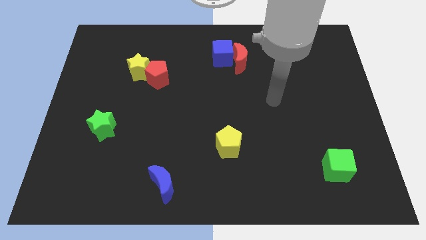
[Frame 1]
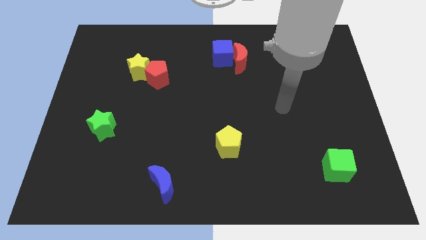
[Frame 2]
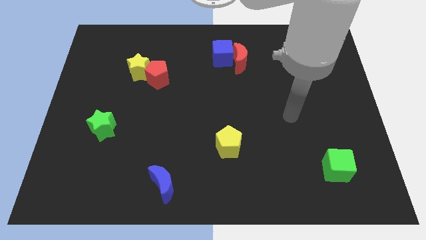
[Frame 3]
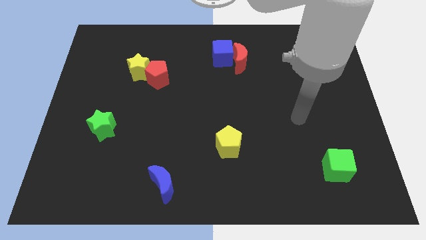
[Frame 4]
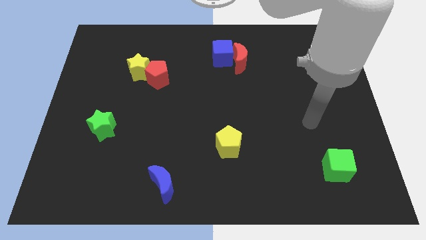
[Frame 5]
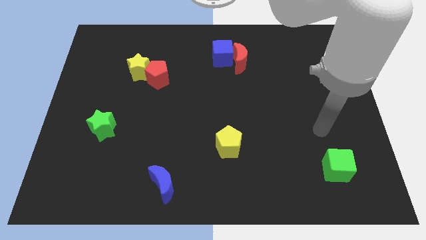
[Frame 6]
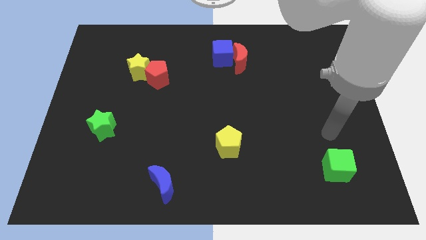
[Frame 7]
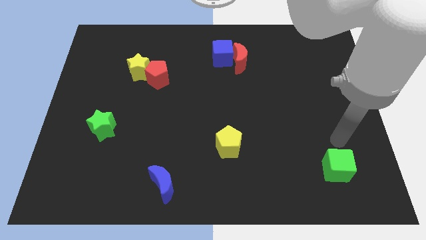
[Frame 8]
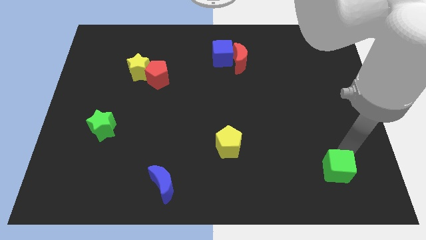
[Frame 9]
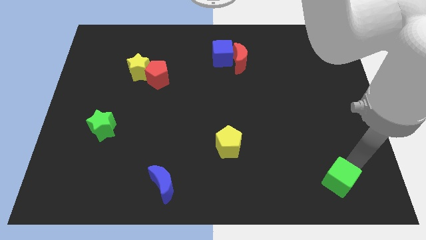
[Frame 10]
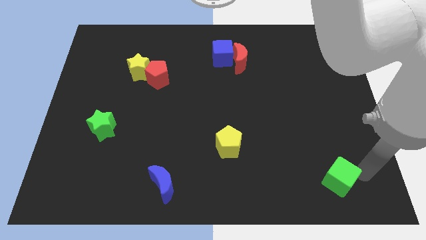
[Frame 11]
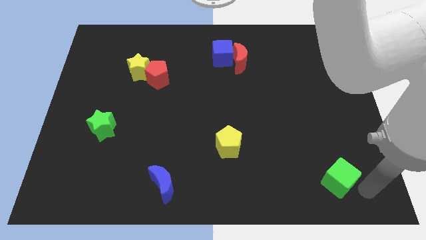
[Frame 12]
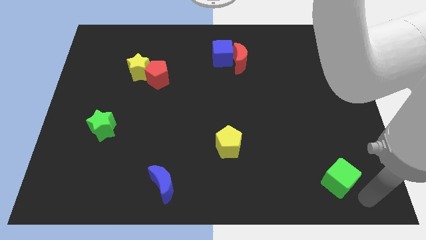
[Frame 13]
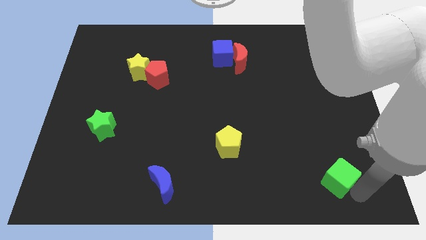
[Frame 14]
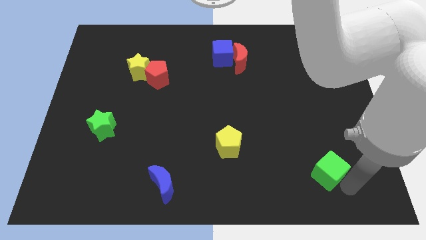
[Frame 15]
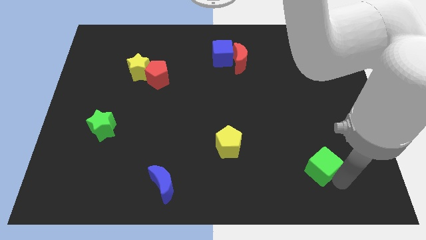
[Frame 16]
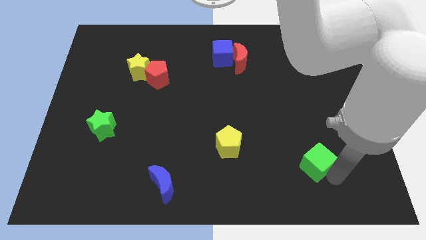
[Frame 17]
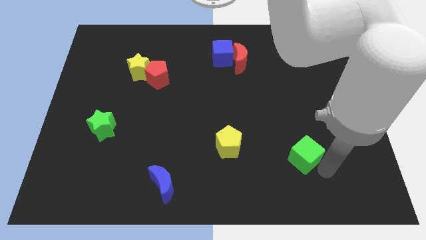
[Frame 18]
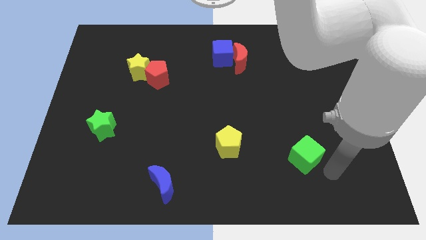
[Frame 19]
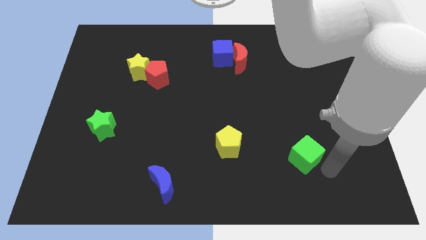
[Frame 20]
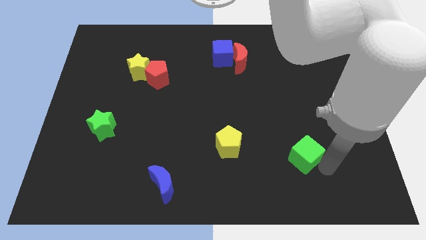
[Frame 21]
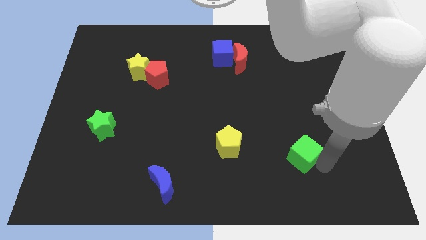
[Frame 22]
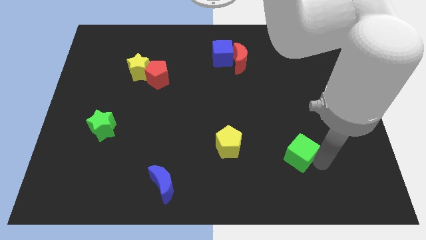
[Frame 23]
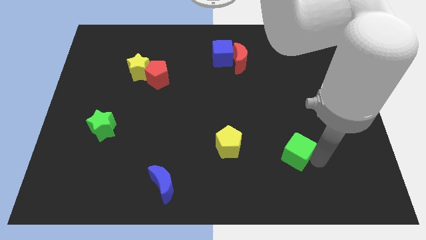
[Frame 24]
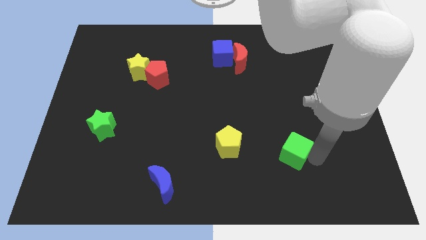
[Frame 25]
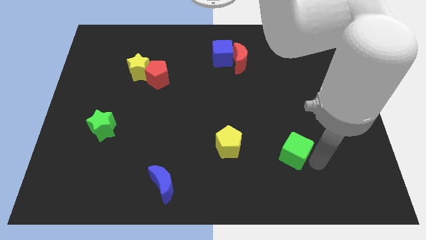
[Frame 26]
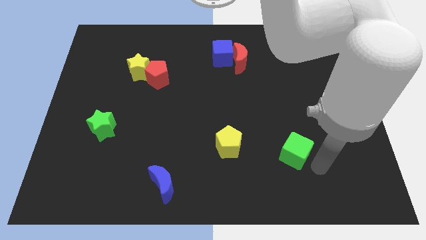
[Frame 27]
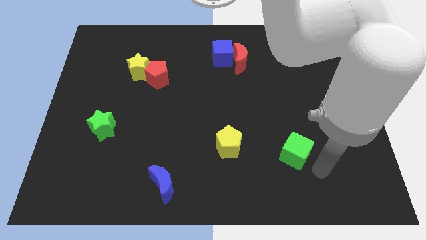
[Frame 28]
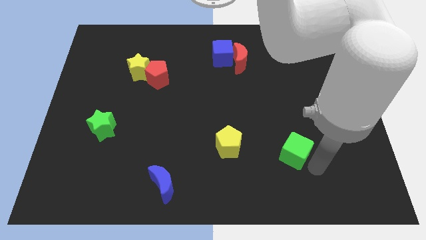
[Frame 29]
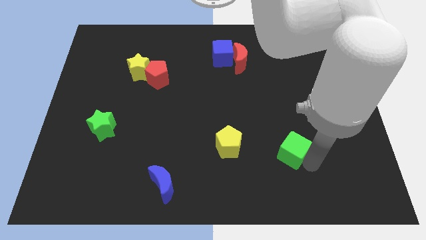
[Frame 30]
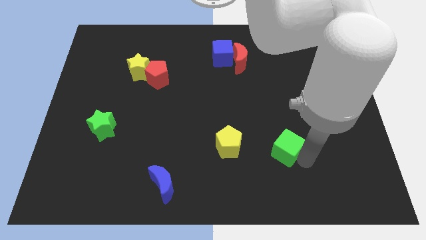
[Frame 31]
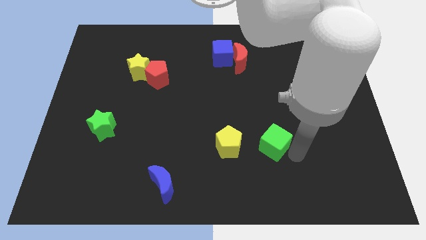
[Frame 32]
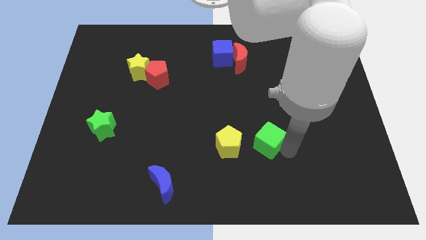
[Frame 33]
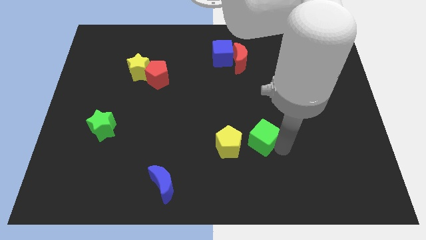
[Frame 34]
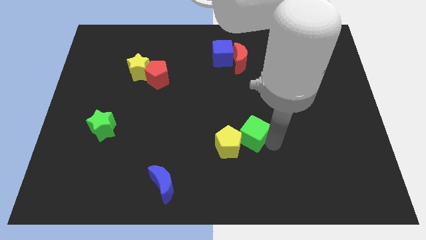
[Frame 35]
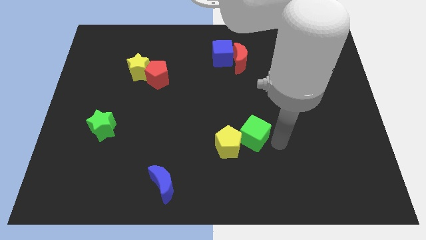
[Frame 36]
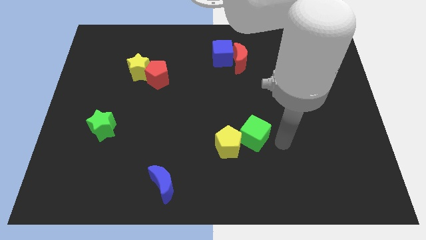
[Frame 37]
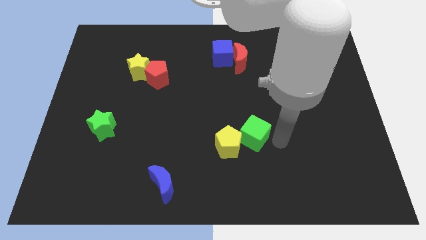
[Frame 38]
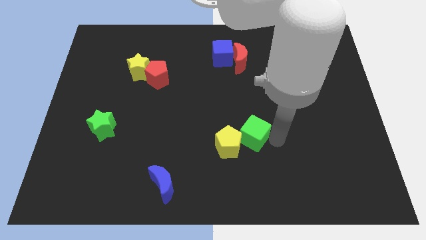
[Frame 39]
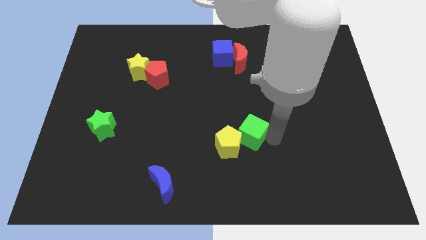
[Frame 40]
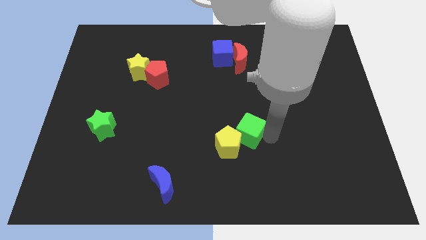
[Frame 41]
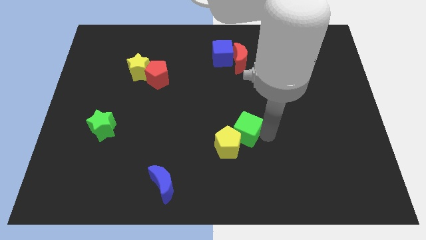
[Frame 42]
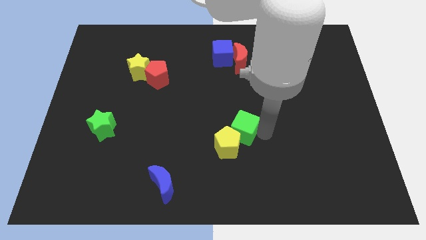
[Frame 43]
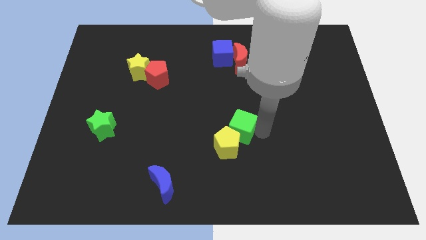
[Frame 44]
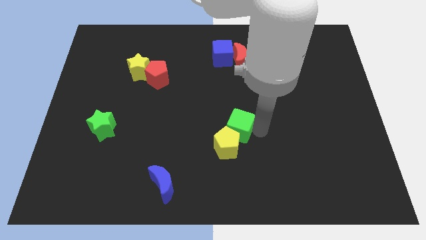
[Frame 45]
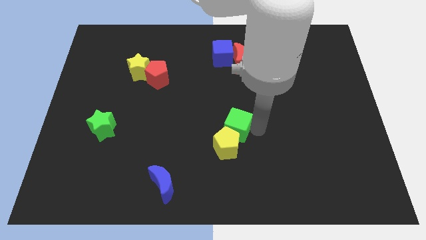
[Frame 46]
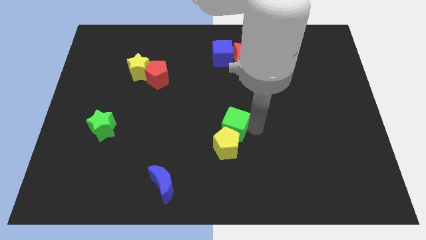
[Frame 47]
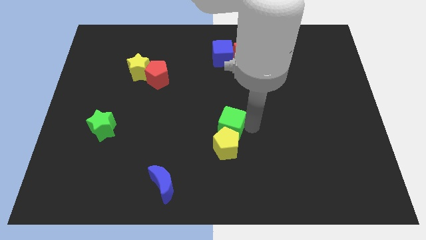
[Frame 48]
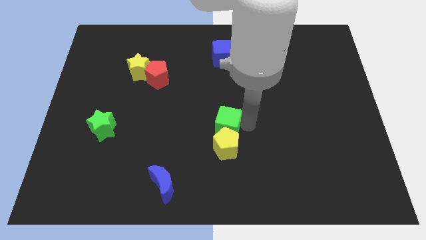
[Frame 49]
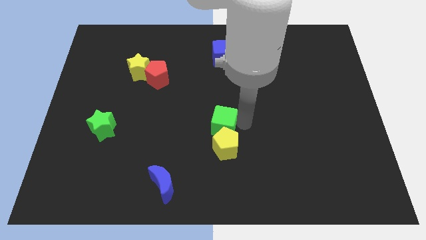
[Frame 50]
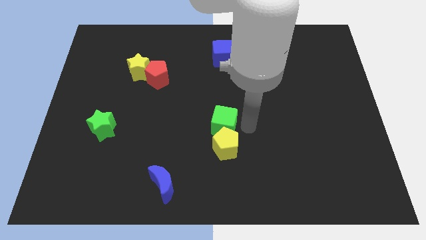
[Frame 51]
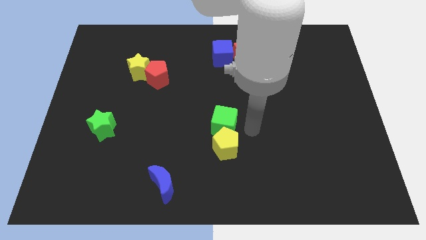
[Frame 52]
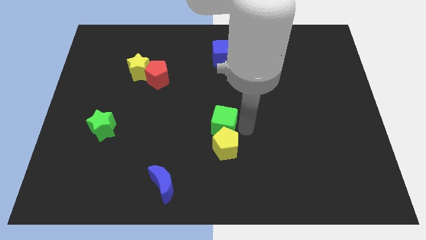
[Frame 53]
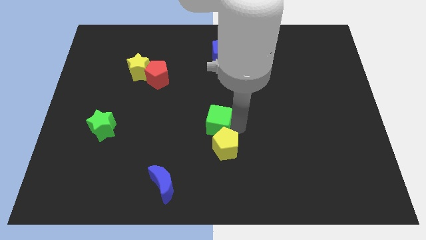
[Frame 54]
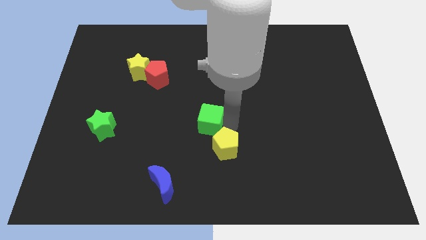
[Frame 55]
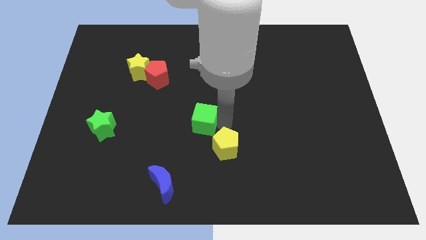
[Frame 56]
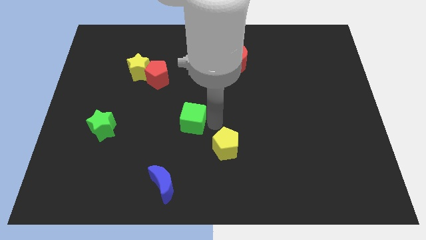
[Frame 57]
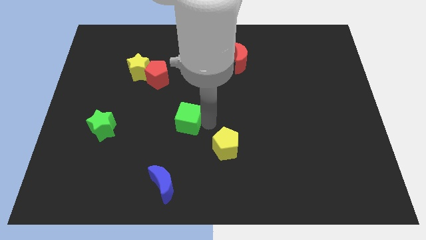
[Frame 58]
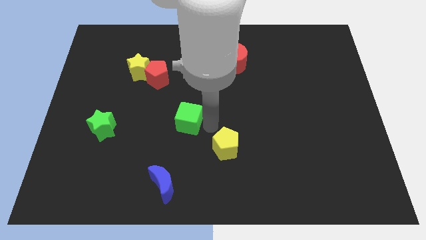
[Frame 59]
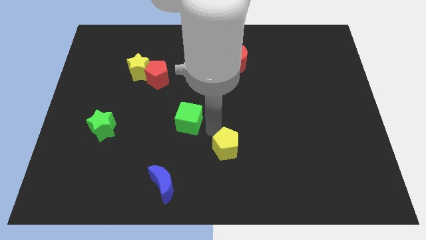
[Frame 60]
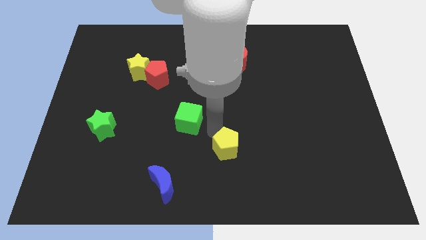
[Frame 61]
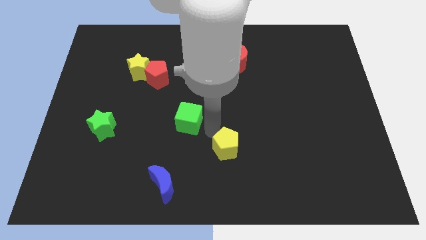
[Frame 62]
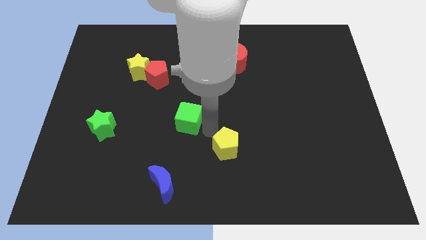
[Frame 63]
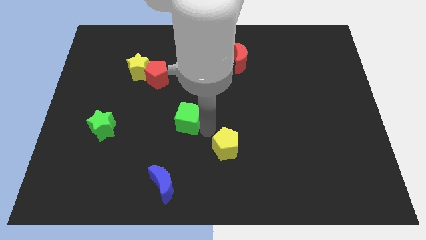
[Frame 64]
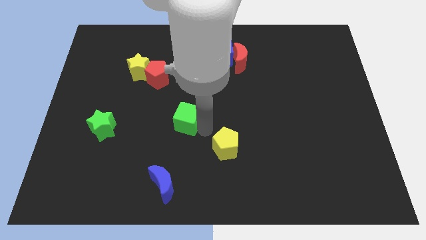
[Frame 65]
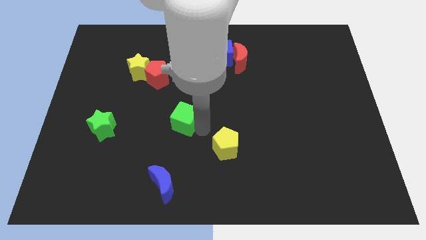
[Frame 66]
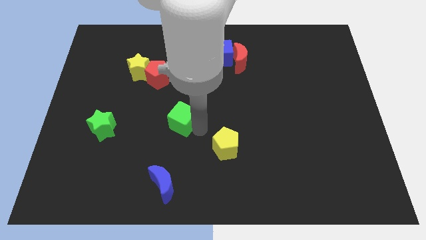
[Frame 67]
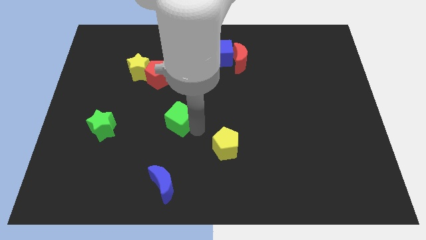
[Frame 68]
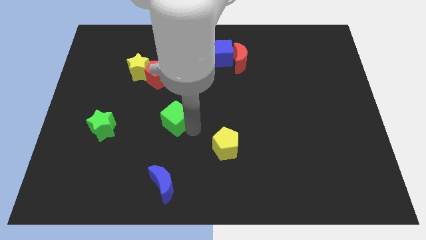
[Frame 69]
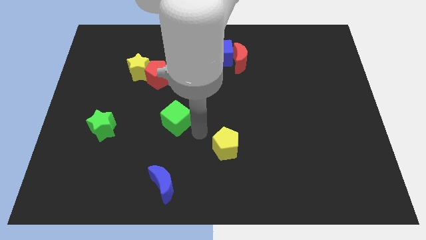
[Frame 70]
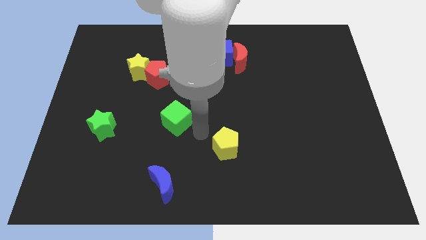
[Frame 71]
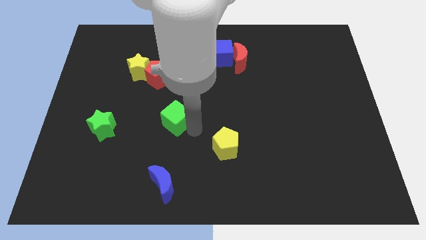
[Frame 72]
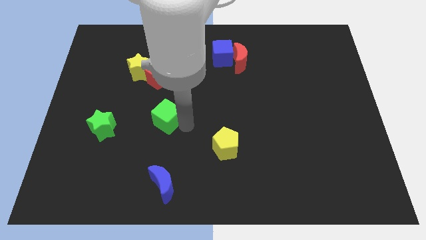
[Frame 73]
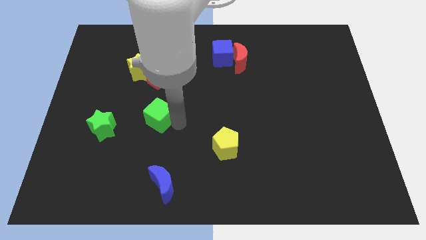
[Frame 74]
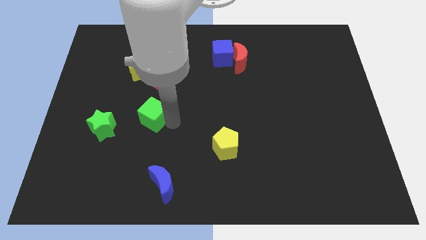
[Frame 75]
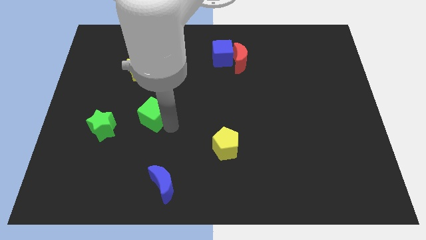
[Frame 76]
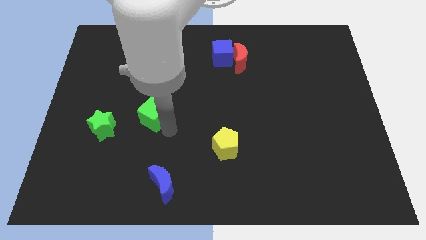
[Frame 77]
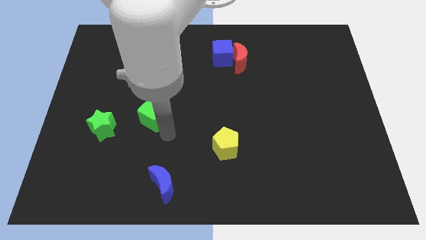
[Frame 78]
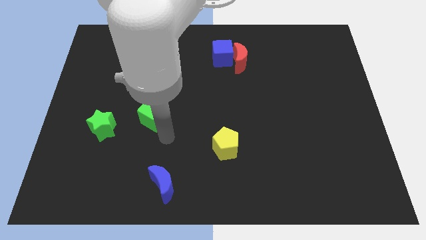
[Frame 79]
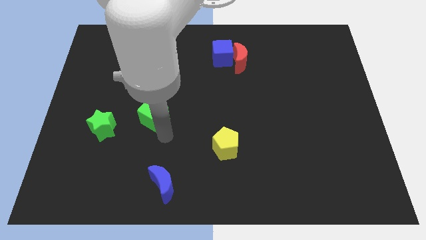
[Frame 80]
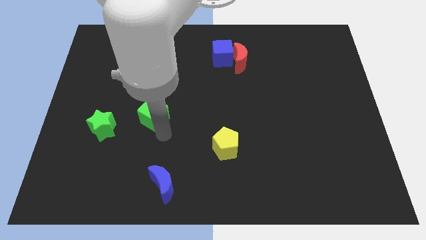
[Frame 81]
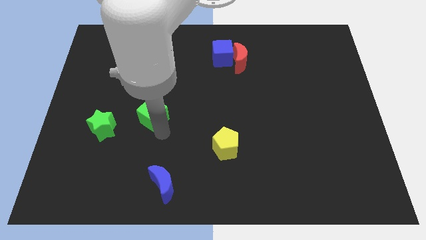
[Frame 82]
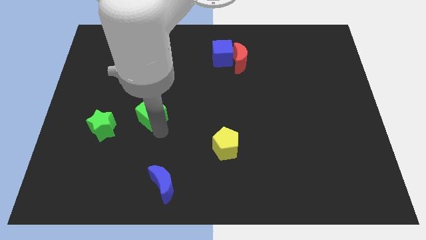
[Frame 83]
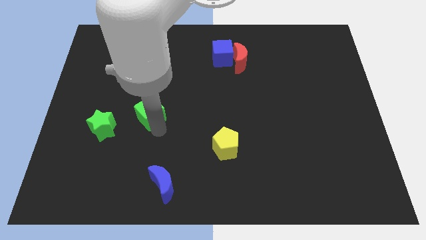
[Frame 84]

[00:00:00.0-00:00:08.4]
put the green cube to the bottom of the yellow star
